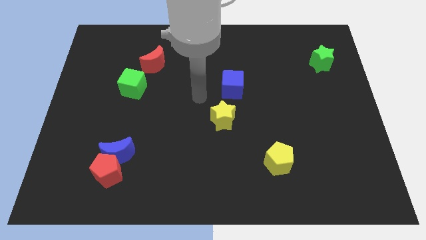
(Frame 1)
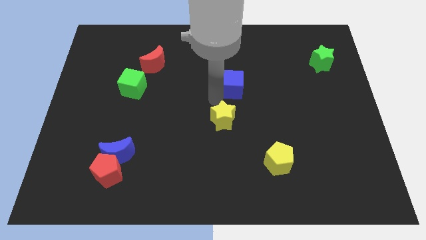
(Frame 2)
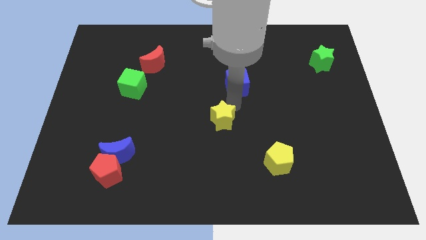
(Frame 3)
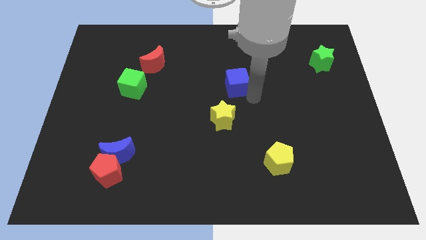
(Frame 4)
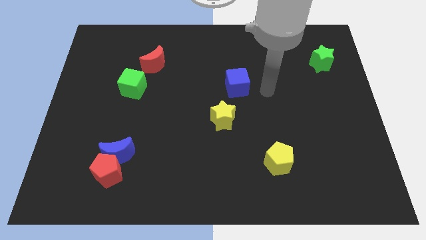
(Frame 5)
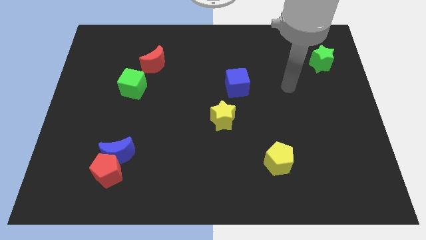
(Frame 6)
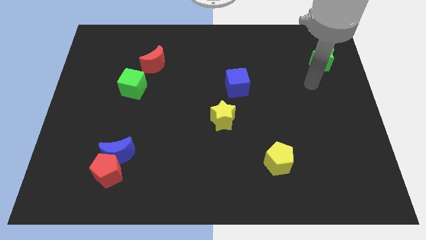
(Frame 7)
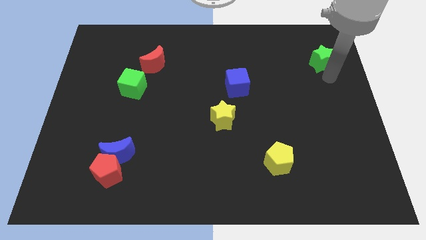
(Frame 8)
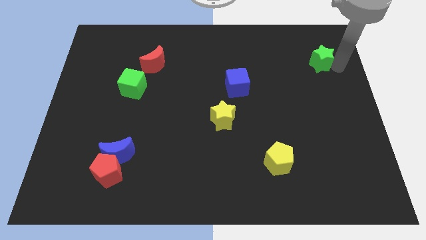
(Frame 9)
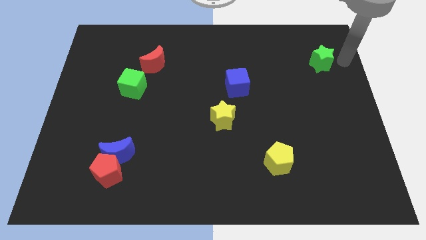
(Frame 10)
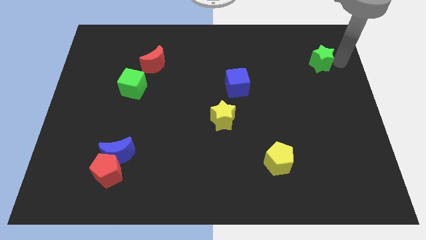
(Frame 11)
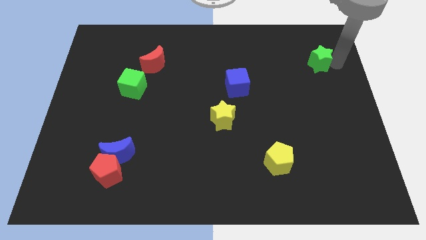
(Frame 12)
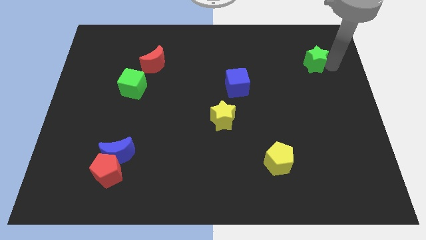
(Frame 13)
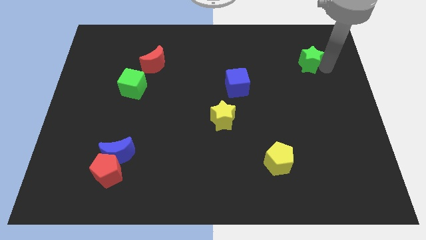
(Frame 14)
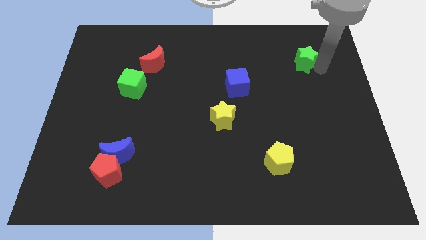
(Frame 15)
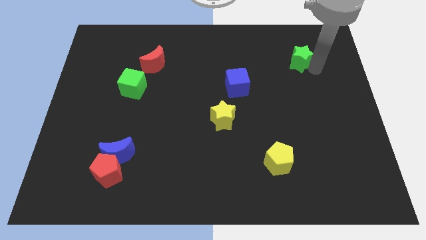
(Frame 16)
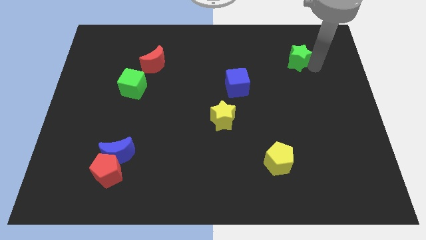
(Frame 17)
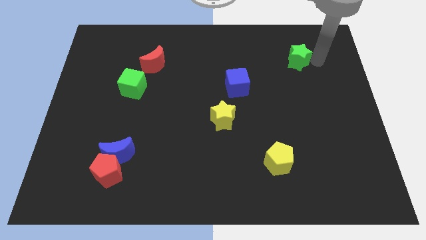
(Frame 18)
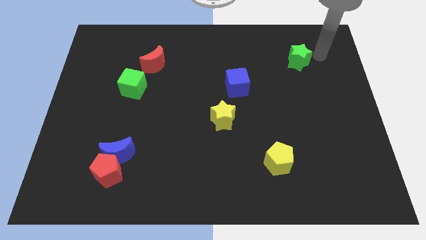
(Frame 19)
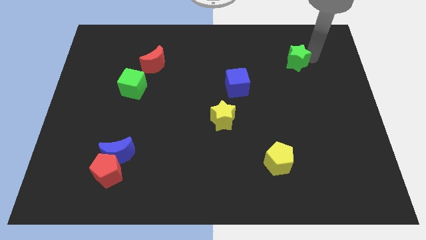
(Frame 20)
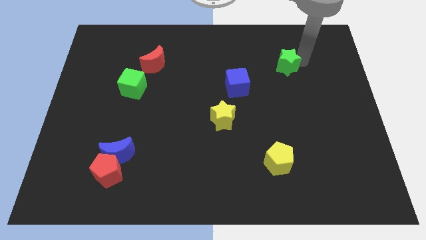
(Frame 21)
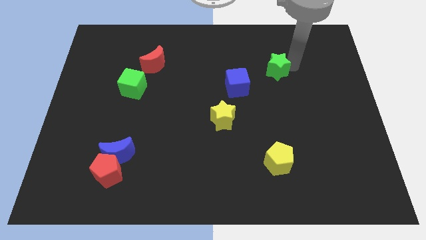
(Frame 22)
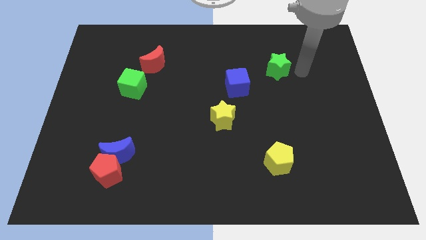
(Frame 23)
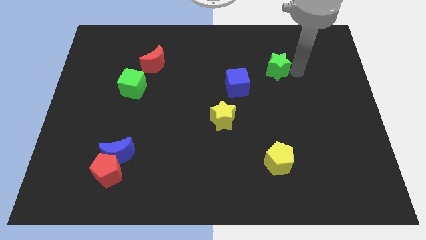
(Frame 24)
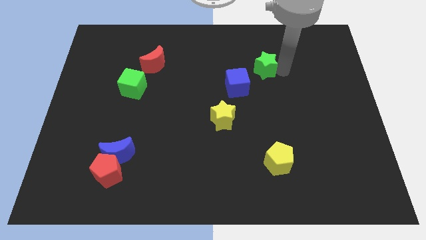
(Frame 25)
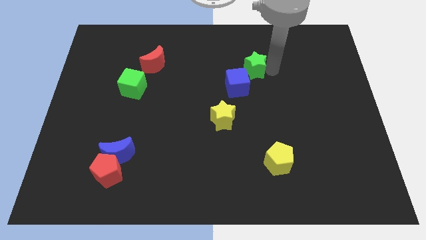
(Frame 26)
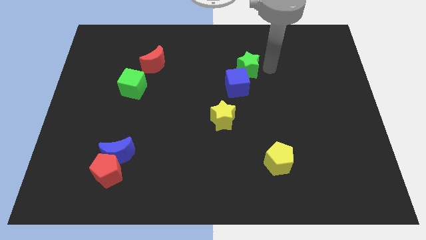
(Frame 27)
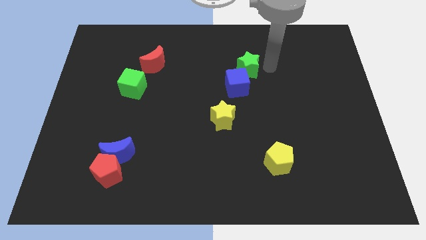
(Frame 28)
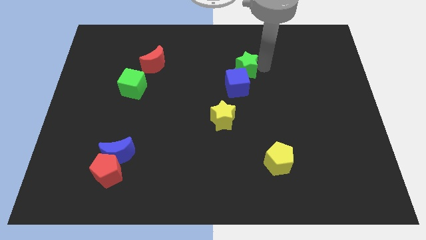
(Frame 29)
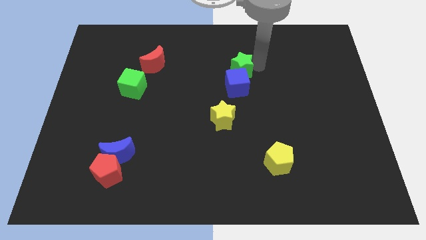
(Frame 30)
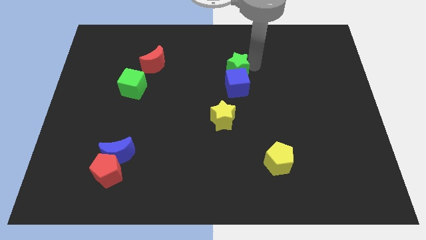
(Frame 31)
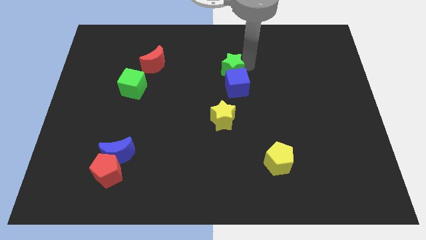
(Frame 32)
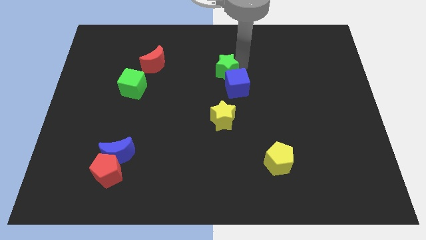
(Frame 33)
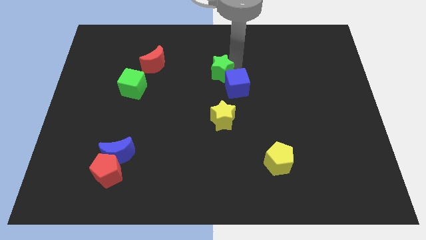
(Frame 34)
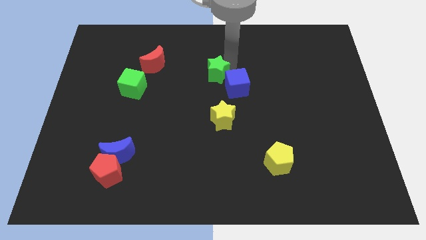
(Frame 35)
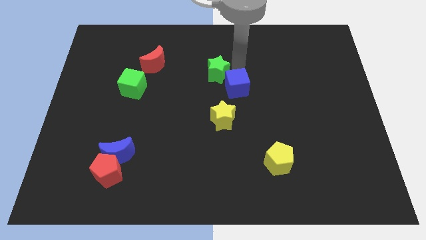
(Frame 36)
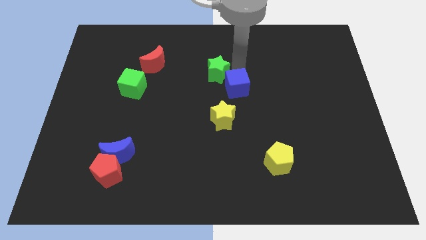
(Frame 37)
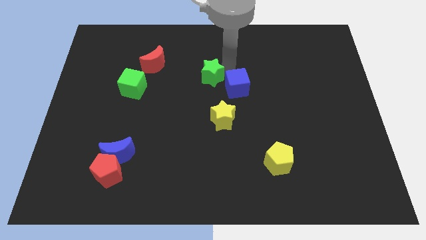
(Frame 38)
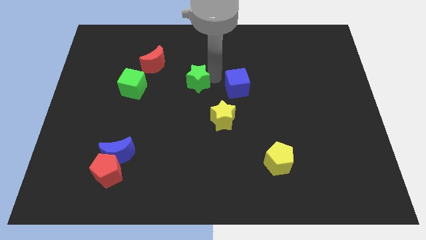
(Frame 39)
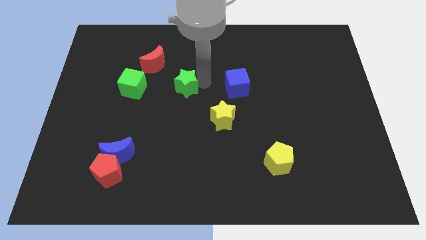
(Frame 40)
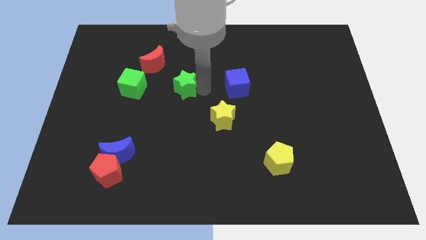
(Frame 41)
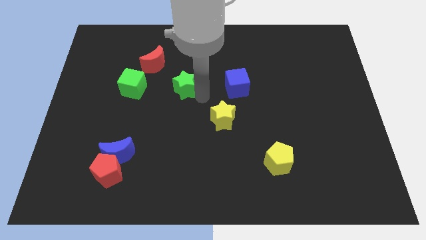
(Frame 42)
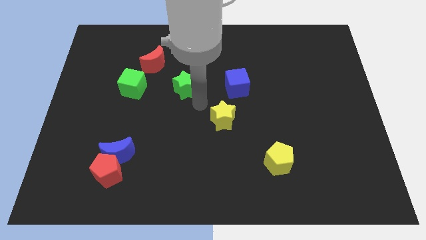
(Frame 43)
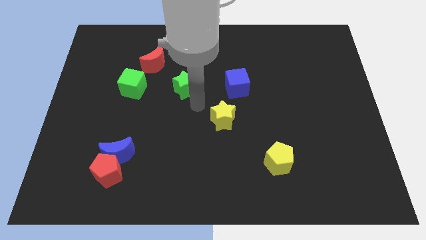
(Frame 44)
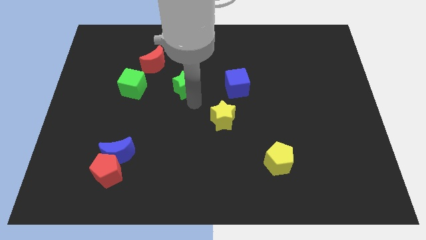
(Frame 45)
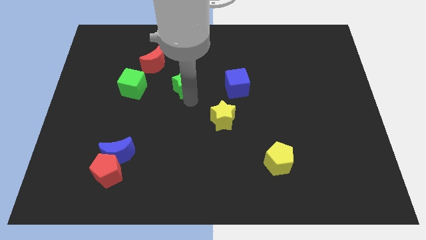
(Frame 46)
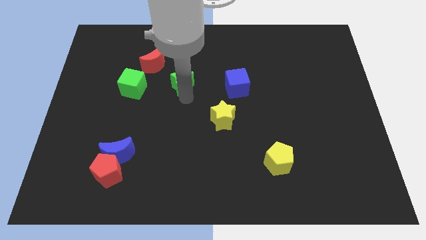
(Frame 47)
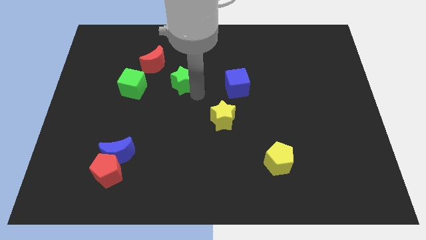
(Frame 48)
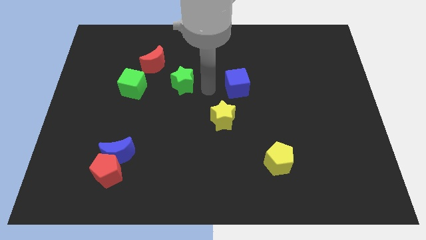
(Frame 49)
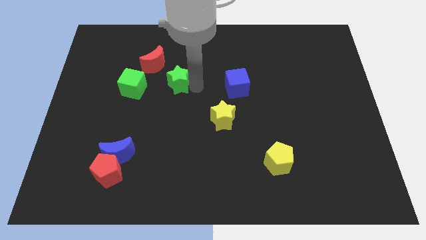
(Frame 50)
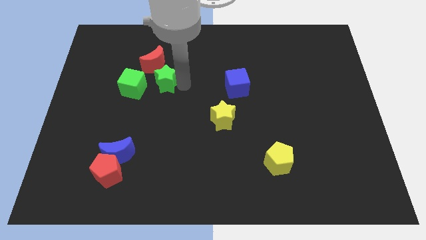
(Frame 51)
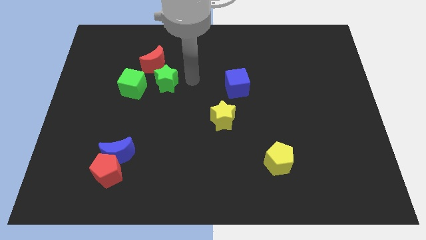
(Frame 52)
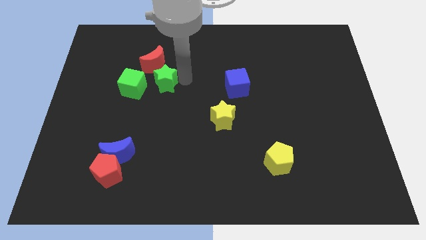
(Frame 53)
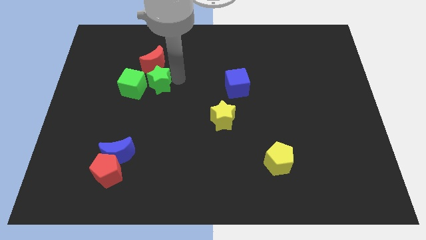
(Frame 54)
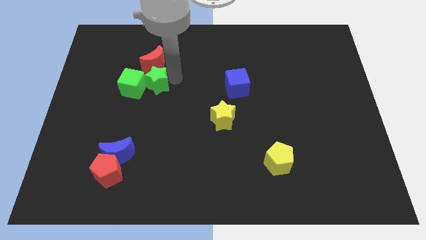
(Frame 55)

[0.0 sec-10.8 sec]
put the green star next to the green cube

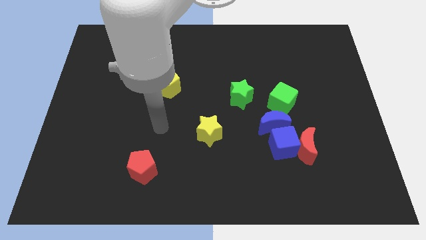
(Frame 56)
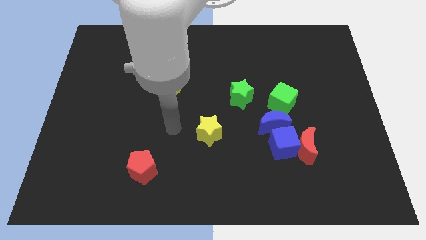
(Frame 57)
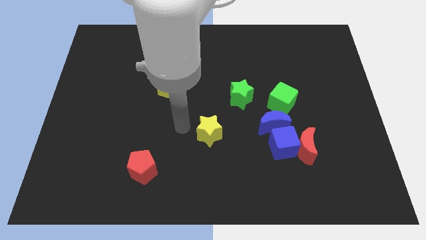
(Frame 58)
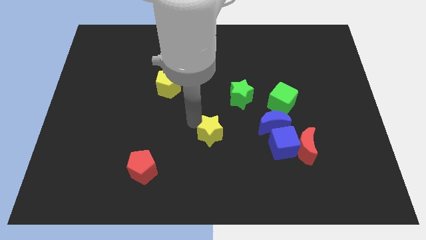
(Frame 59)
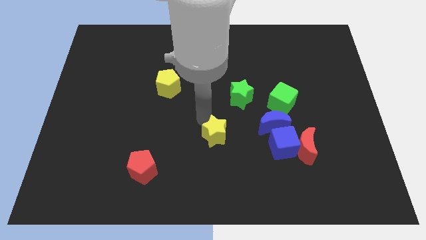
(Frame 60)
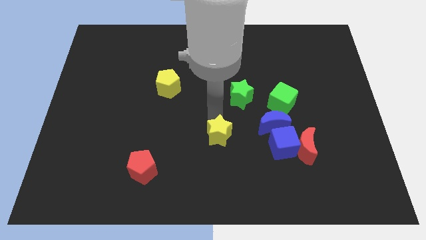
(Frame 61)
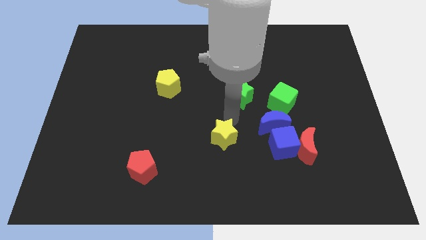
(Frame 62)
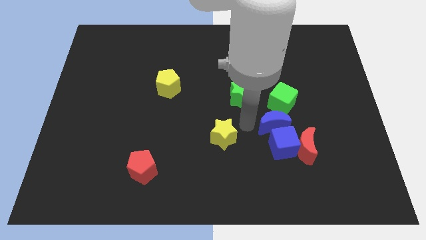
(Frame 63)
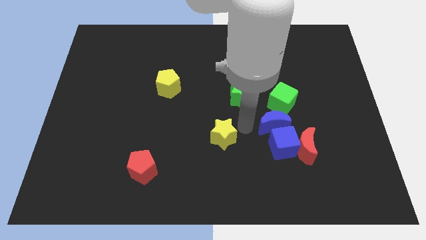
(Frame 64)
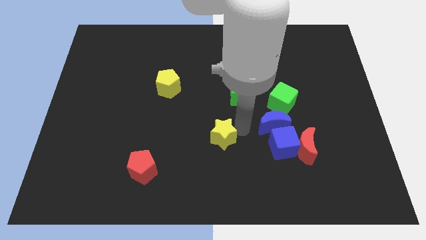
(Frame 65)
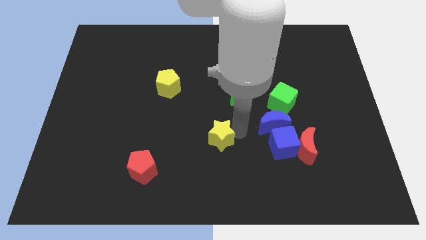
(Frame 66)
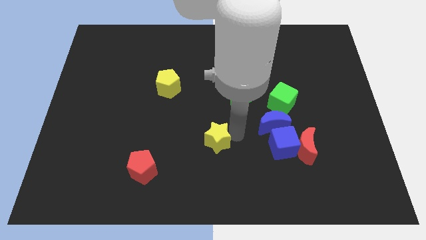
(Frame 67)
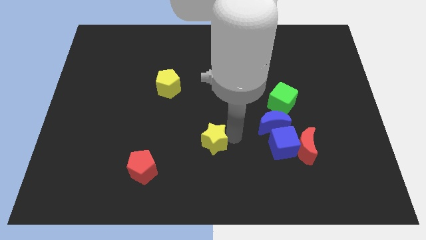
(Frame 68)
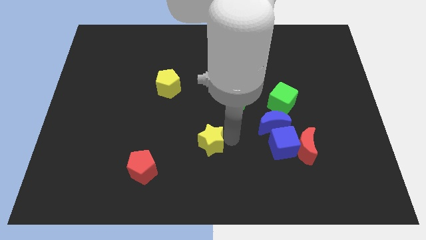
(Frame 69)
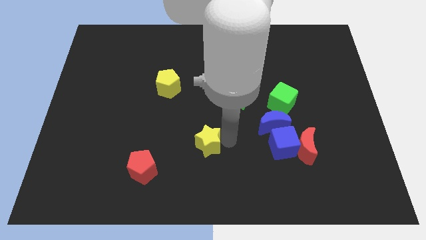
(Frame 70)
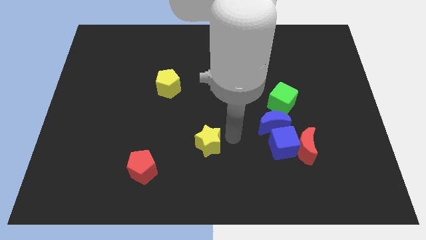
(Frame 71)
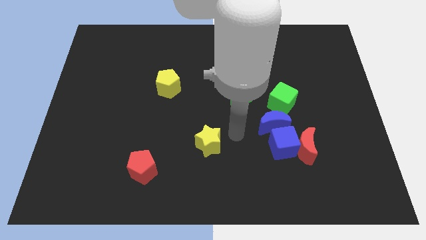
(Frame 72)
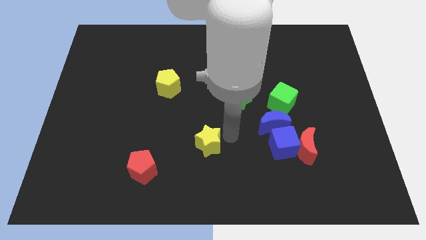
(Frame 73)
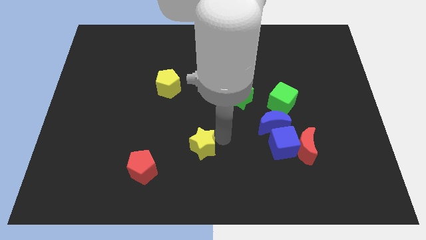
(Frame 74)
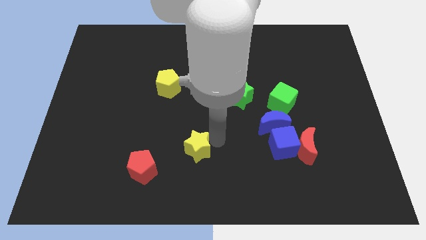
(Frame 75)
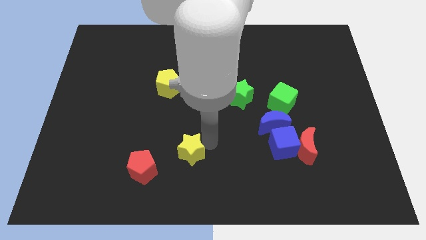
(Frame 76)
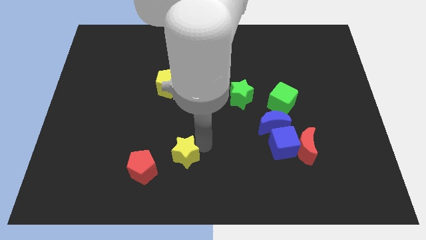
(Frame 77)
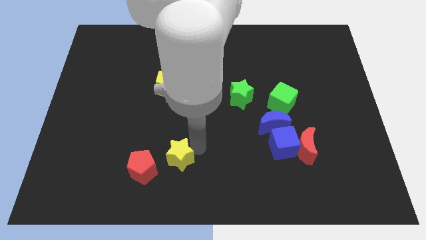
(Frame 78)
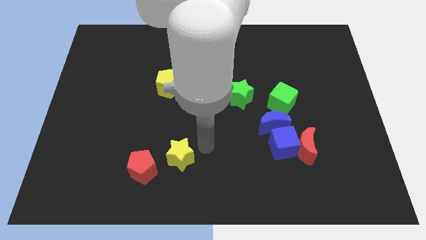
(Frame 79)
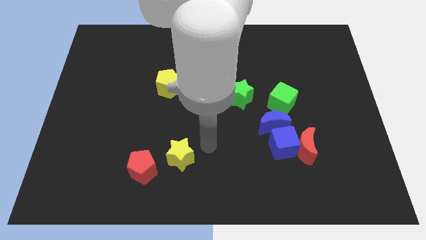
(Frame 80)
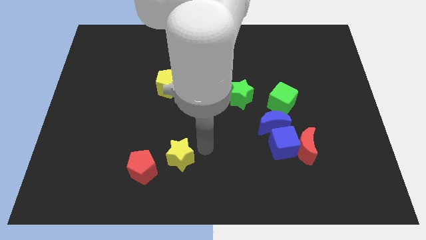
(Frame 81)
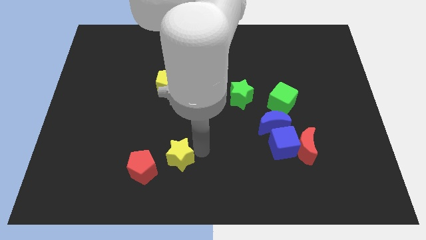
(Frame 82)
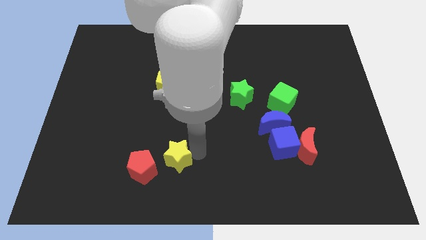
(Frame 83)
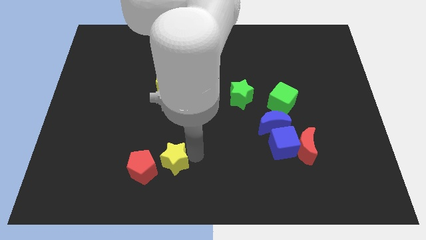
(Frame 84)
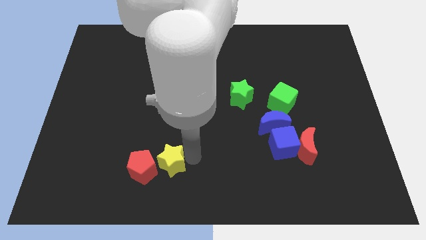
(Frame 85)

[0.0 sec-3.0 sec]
push the yellow star towards the red pentagon
